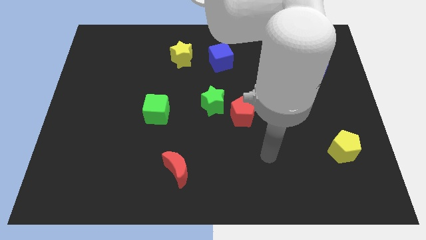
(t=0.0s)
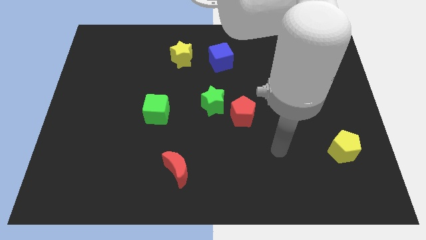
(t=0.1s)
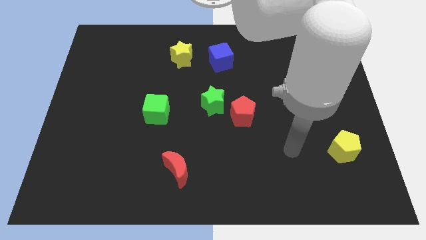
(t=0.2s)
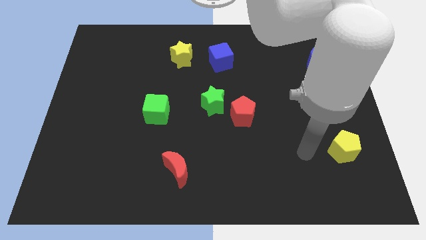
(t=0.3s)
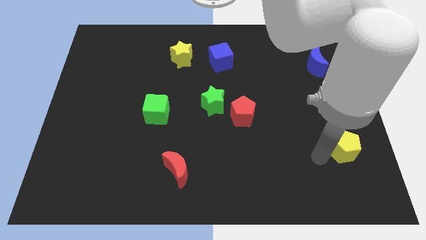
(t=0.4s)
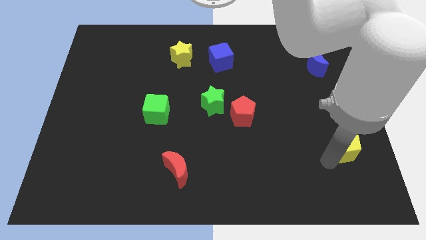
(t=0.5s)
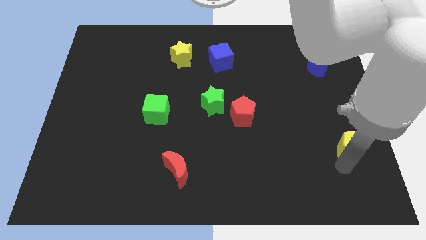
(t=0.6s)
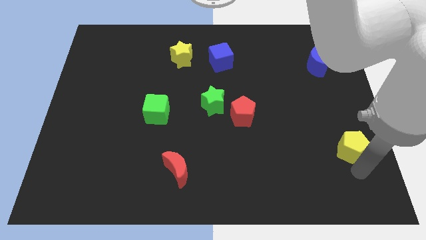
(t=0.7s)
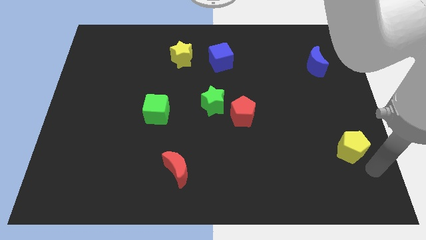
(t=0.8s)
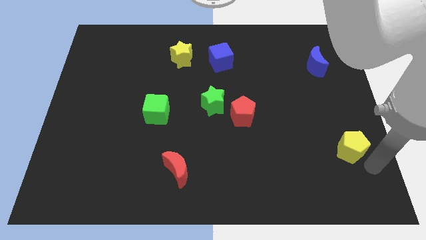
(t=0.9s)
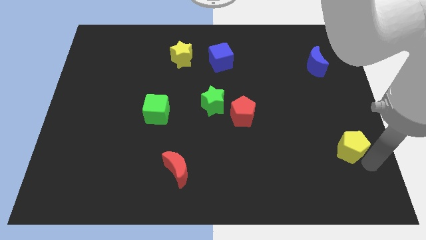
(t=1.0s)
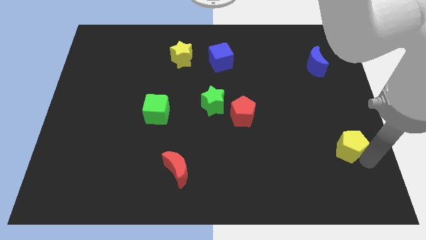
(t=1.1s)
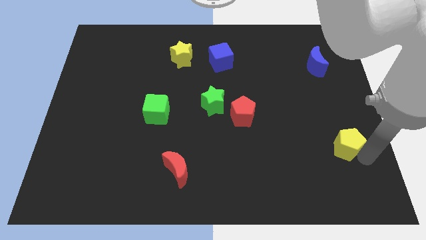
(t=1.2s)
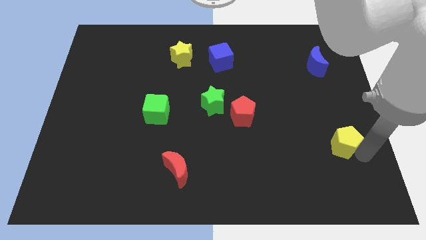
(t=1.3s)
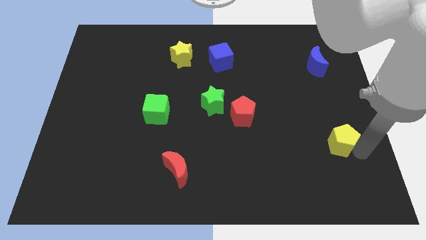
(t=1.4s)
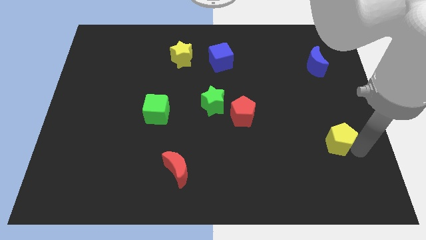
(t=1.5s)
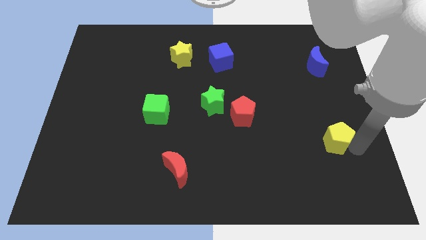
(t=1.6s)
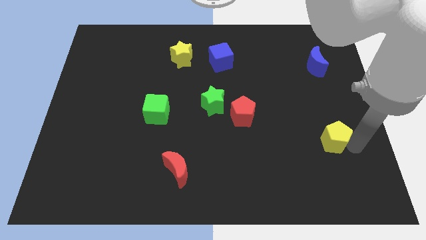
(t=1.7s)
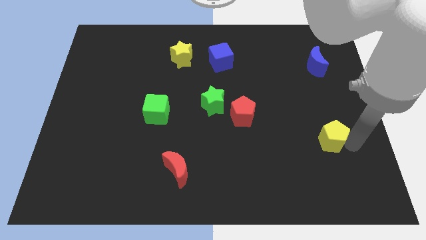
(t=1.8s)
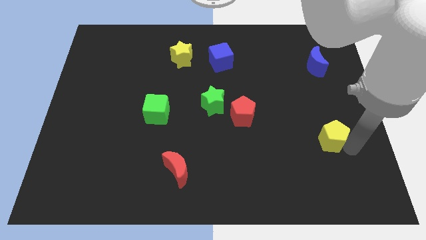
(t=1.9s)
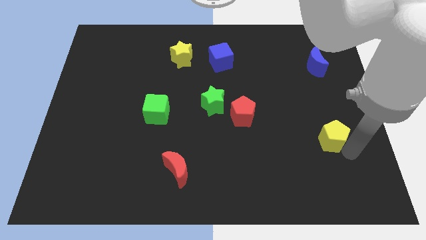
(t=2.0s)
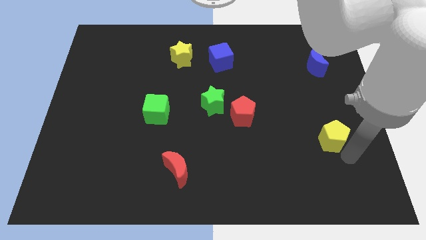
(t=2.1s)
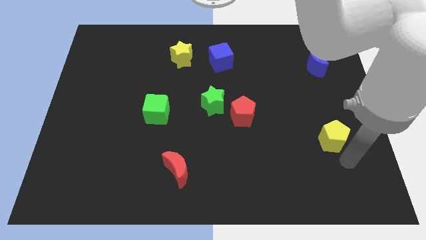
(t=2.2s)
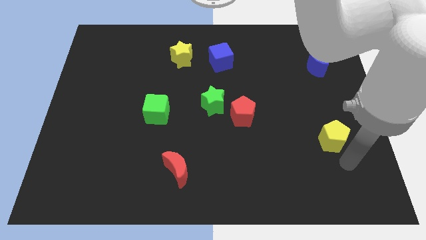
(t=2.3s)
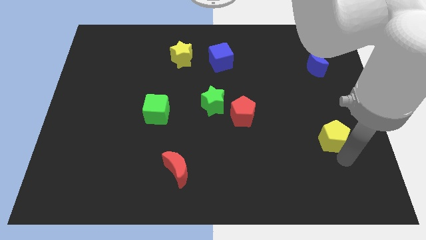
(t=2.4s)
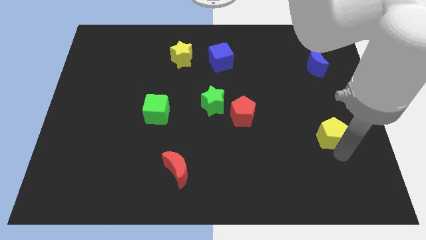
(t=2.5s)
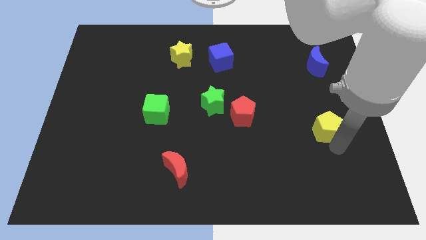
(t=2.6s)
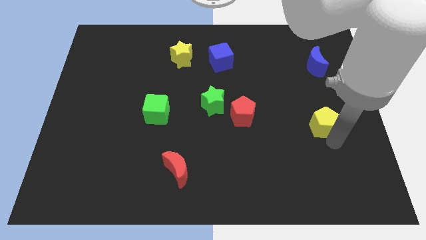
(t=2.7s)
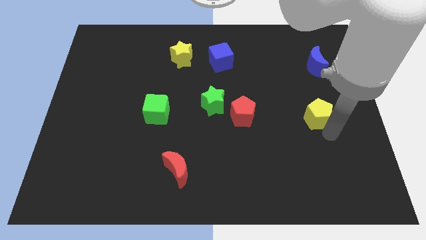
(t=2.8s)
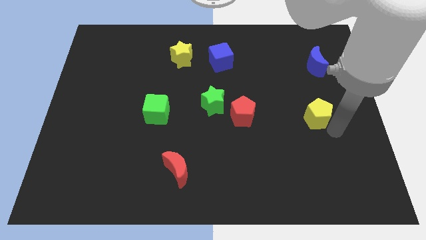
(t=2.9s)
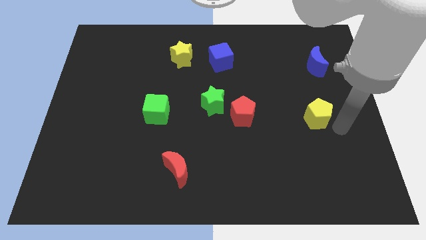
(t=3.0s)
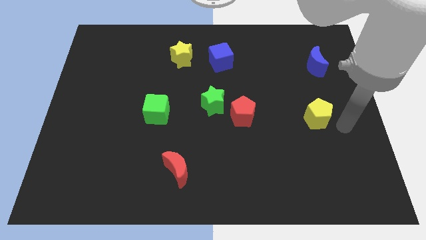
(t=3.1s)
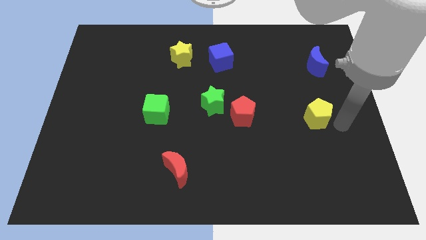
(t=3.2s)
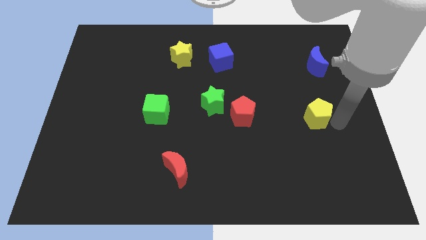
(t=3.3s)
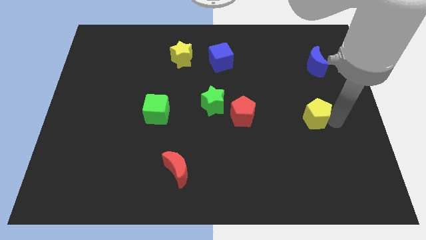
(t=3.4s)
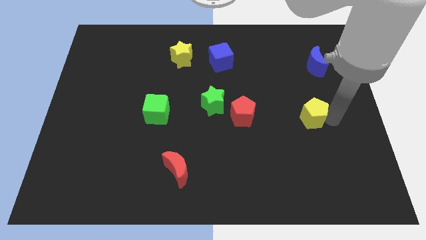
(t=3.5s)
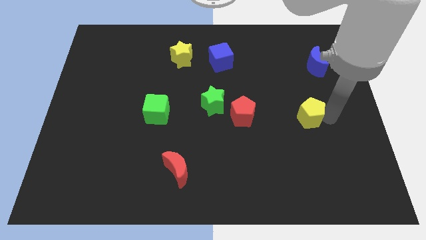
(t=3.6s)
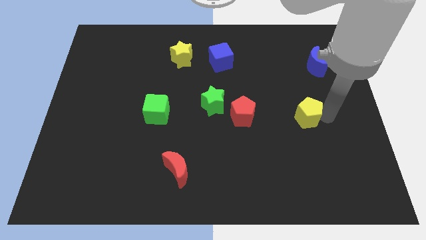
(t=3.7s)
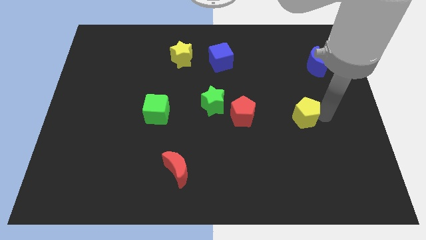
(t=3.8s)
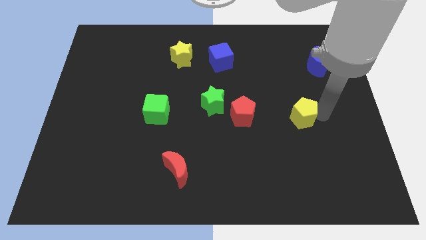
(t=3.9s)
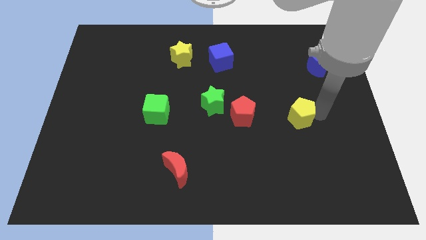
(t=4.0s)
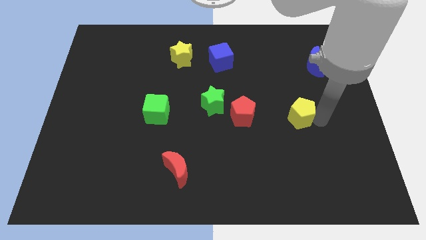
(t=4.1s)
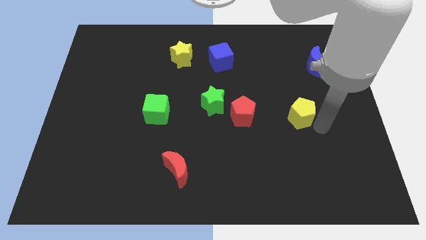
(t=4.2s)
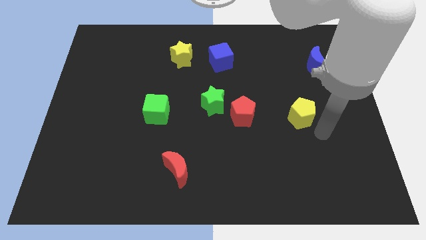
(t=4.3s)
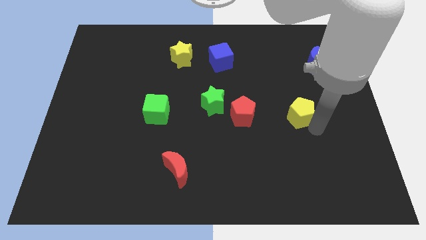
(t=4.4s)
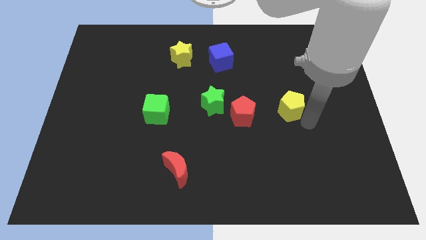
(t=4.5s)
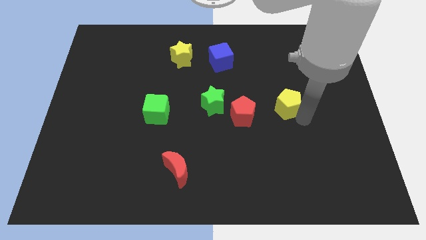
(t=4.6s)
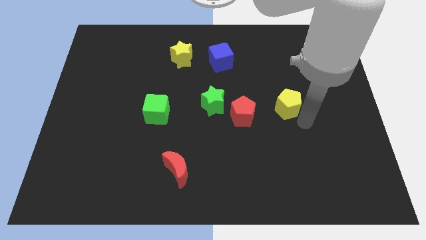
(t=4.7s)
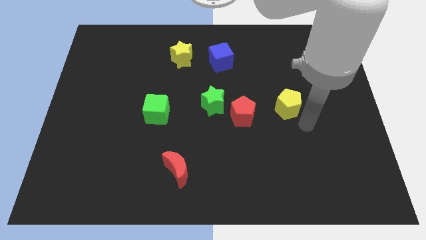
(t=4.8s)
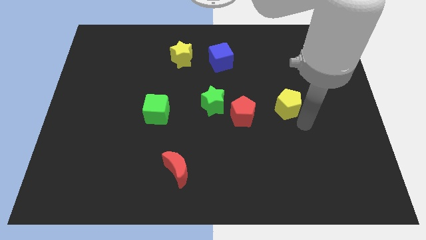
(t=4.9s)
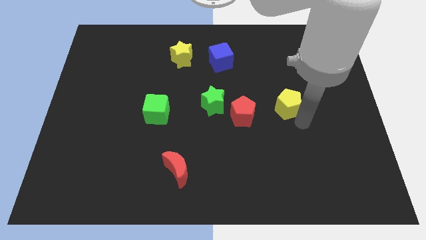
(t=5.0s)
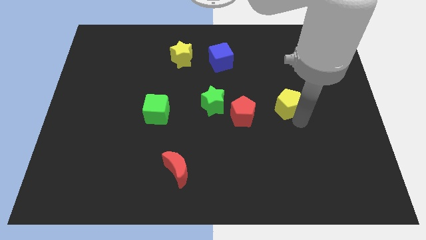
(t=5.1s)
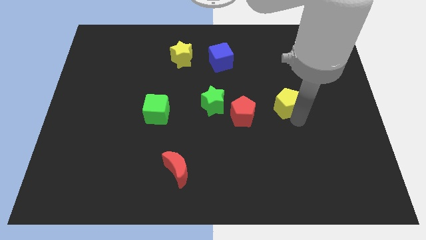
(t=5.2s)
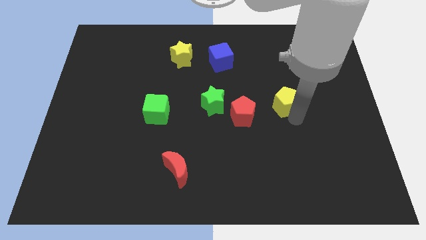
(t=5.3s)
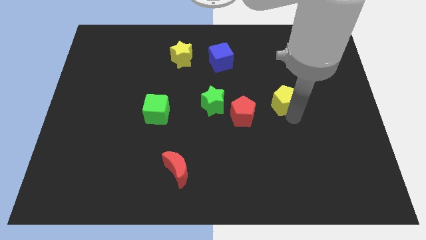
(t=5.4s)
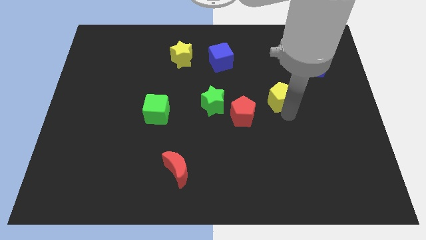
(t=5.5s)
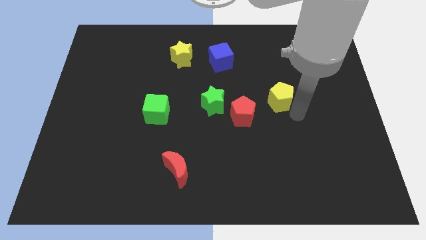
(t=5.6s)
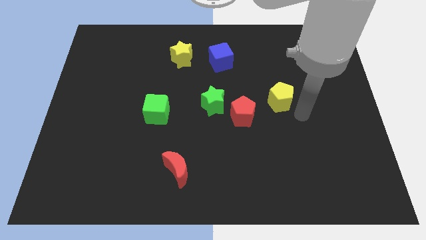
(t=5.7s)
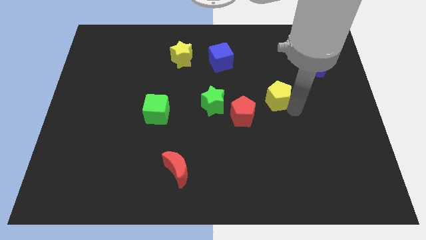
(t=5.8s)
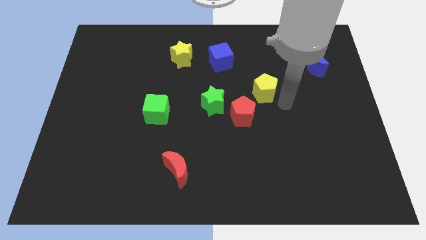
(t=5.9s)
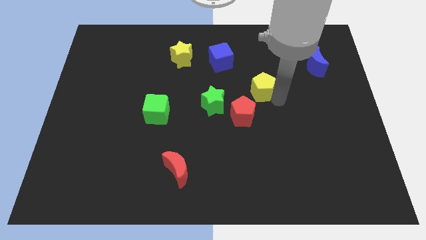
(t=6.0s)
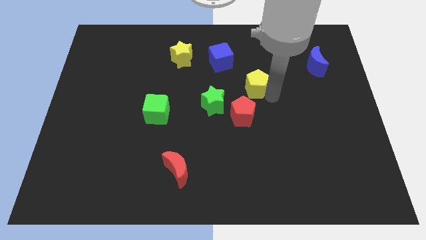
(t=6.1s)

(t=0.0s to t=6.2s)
move the yellow pentagon to the bottom right of the blue cube

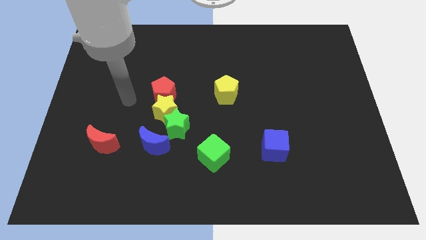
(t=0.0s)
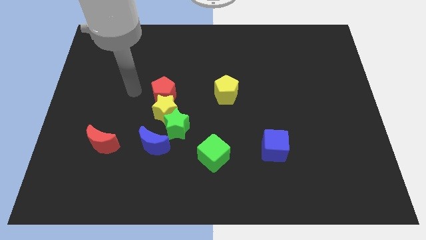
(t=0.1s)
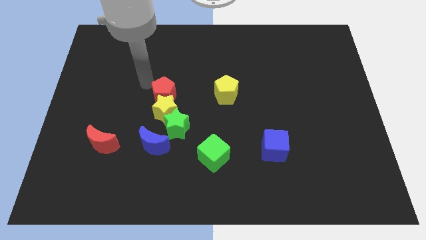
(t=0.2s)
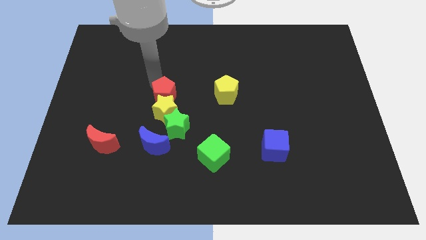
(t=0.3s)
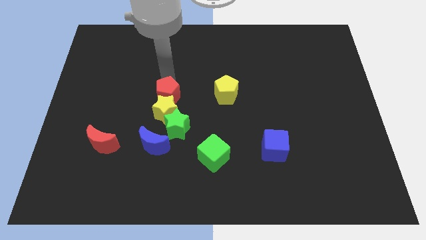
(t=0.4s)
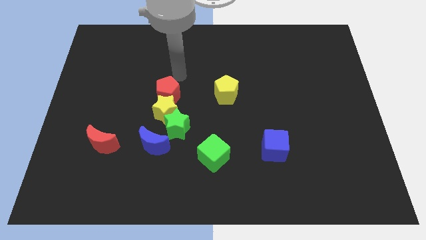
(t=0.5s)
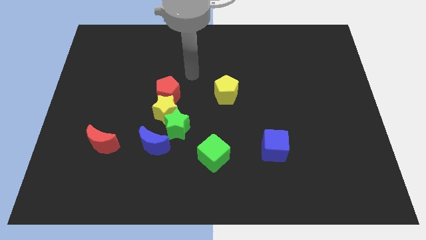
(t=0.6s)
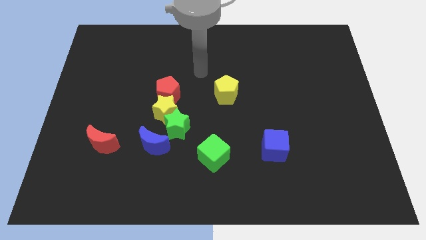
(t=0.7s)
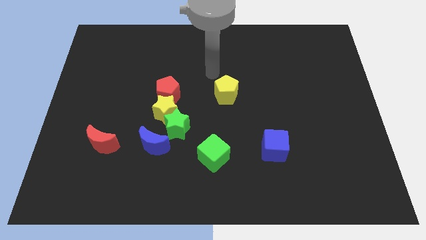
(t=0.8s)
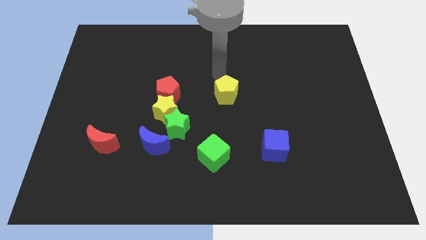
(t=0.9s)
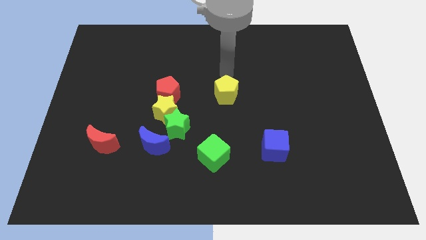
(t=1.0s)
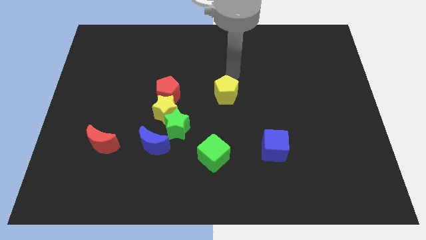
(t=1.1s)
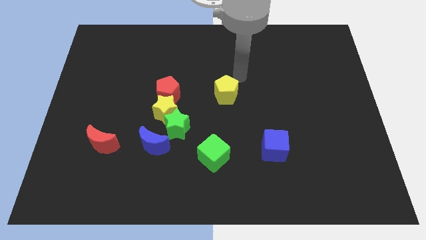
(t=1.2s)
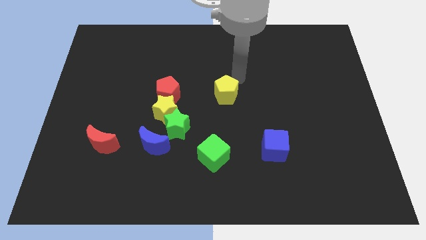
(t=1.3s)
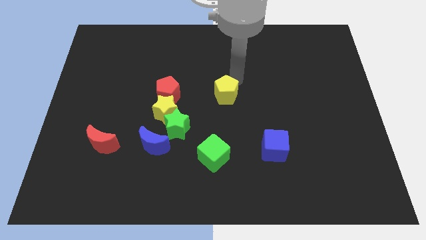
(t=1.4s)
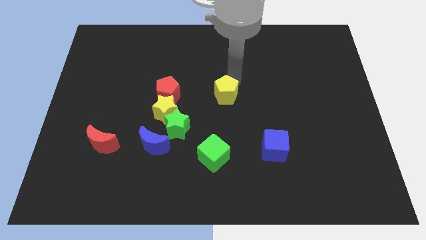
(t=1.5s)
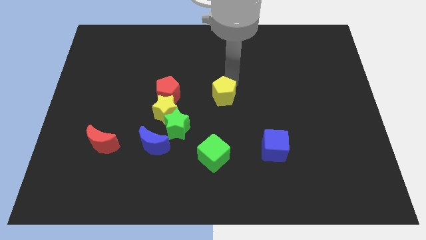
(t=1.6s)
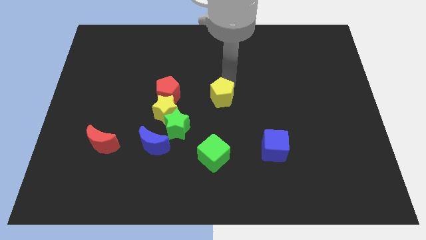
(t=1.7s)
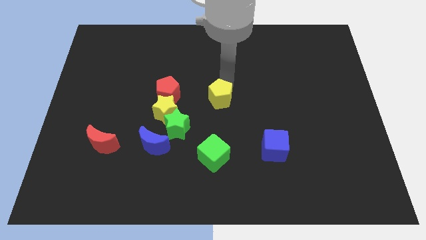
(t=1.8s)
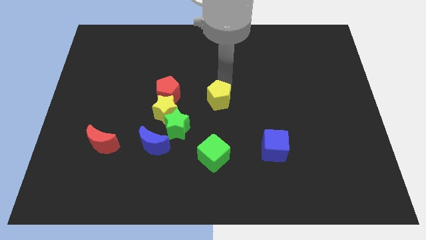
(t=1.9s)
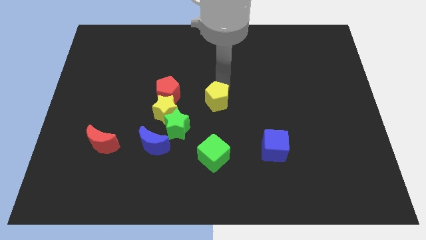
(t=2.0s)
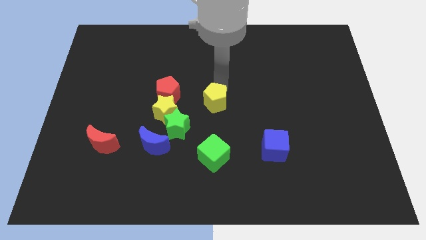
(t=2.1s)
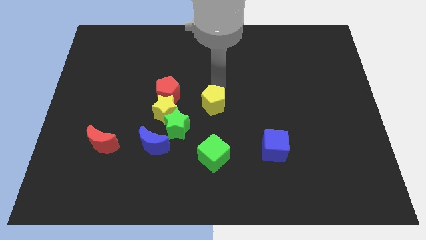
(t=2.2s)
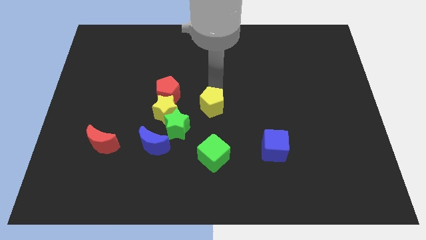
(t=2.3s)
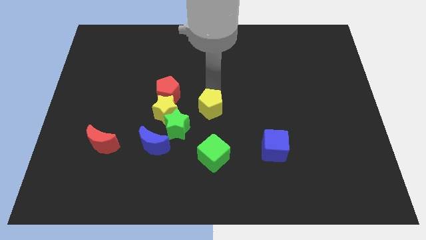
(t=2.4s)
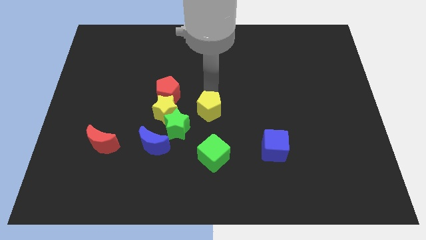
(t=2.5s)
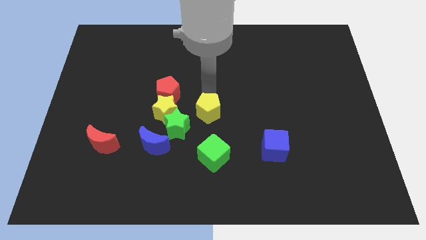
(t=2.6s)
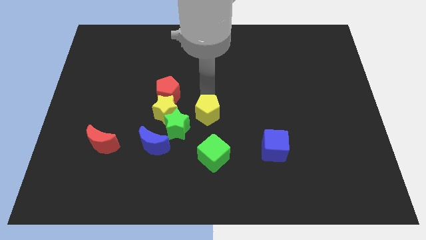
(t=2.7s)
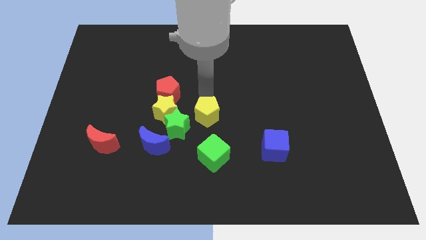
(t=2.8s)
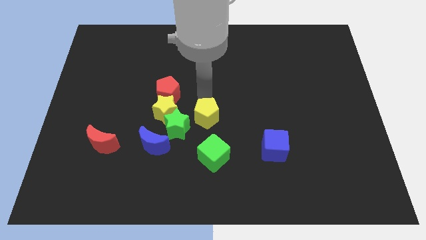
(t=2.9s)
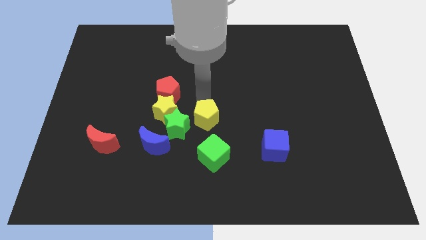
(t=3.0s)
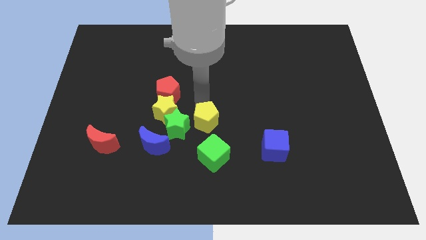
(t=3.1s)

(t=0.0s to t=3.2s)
put the yellow pentagon to the bottom right of the yellow star
